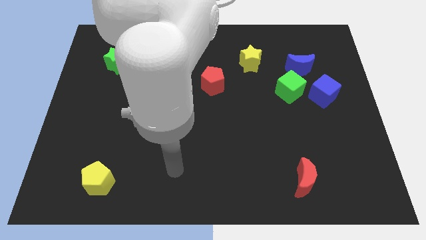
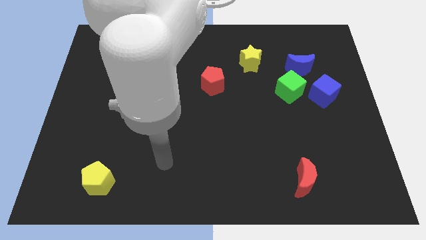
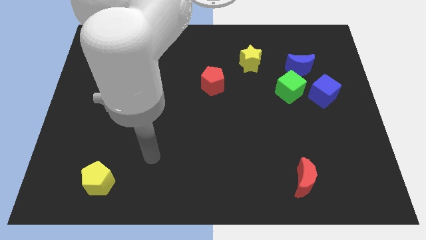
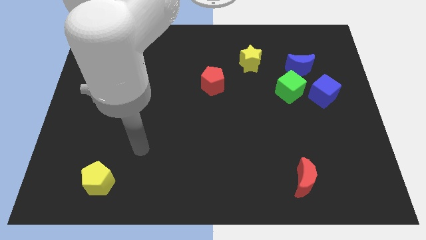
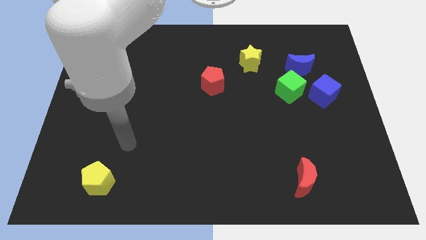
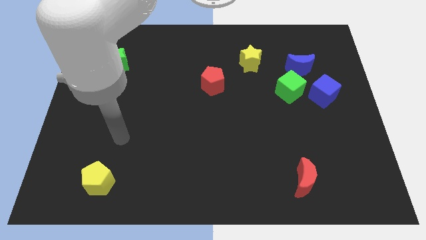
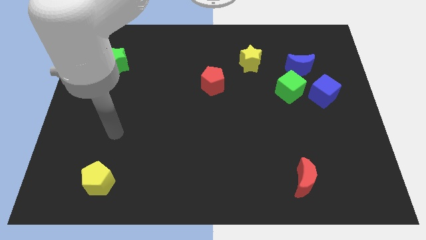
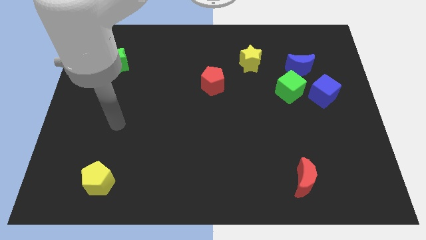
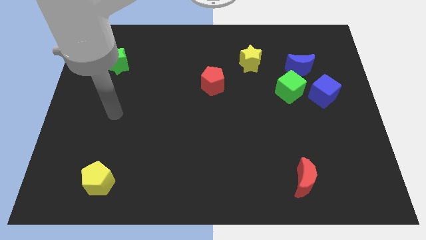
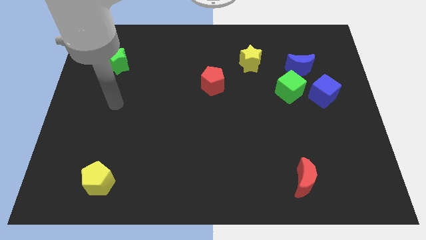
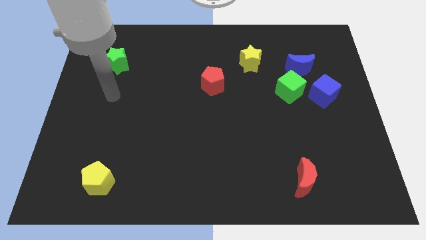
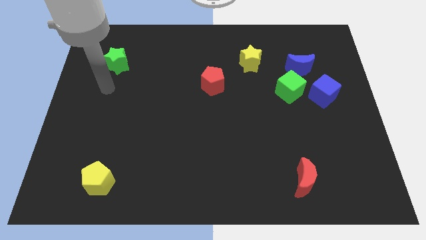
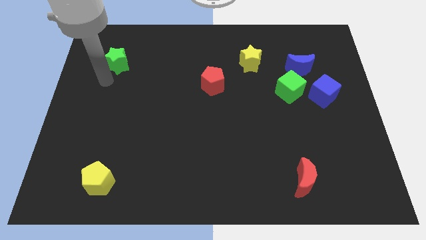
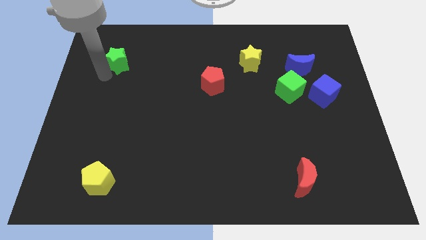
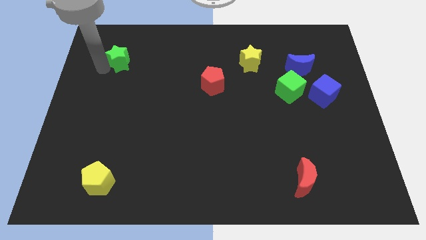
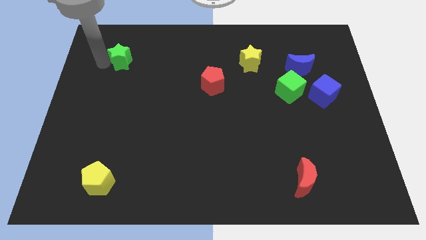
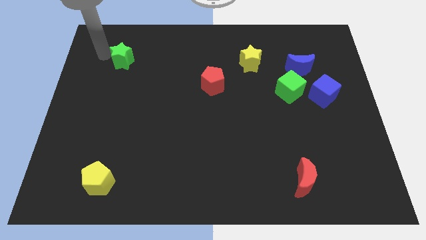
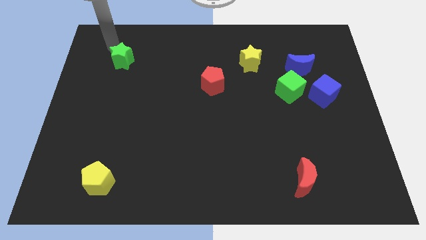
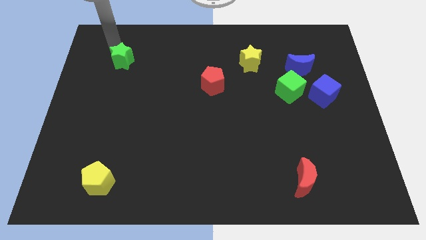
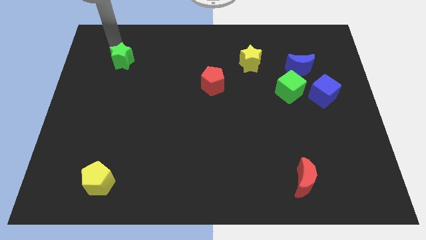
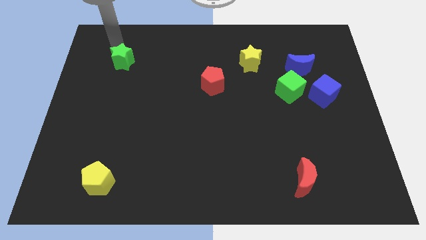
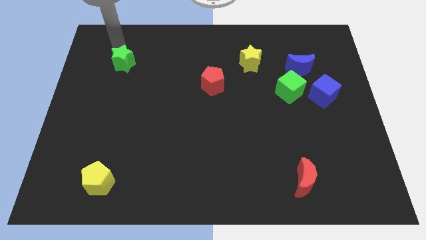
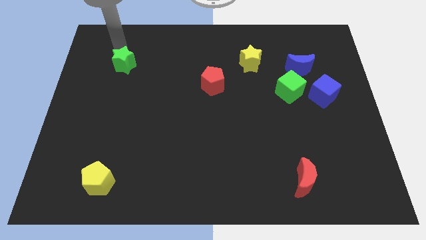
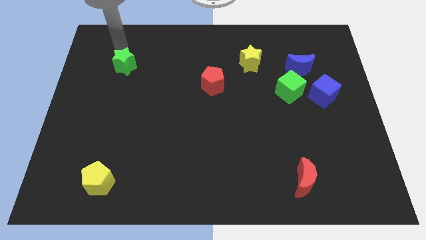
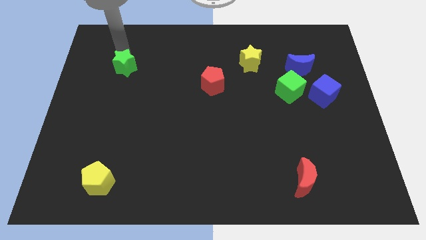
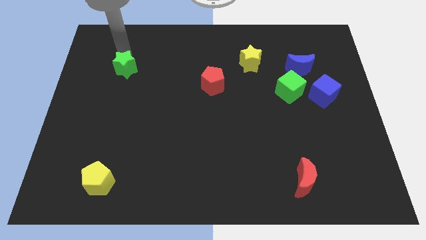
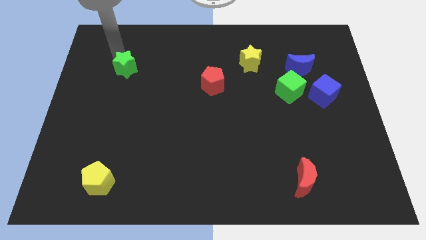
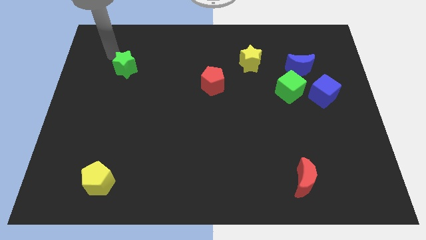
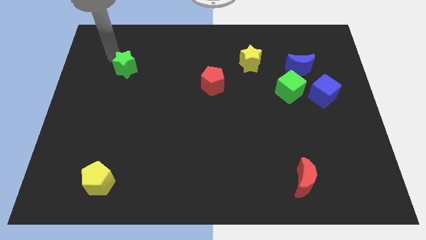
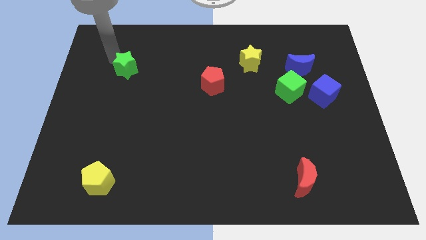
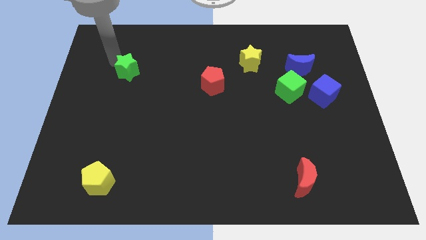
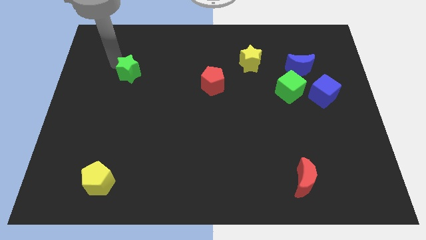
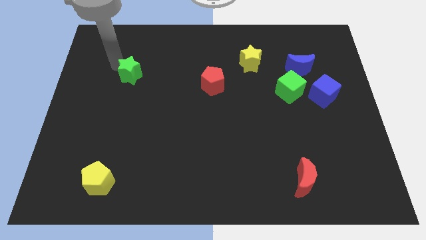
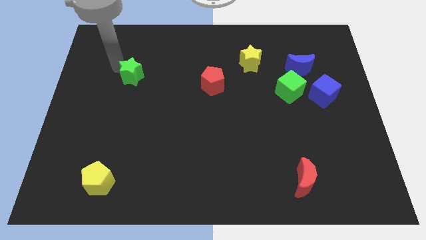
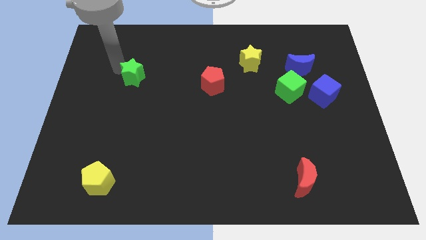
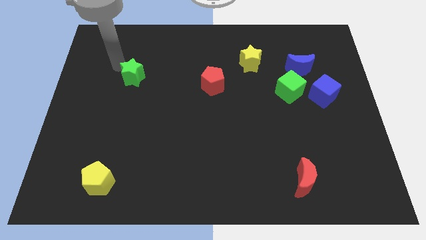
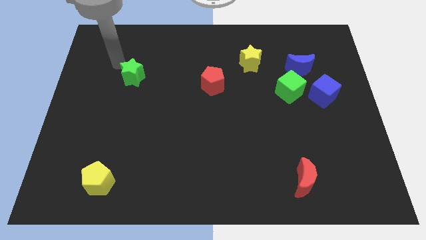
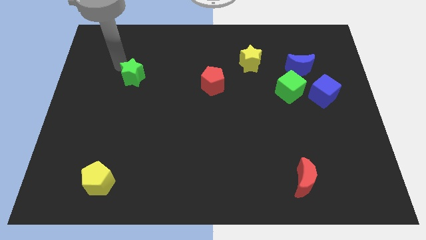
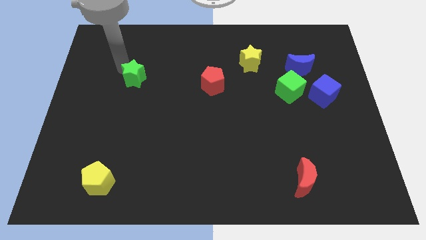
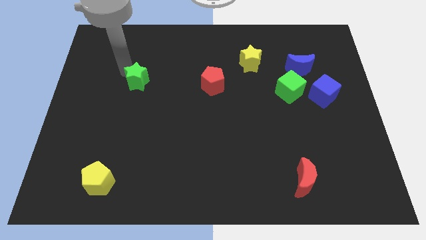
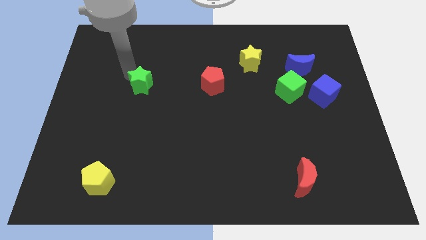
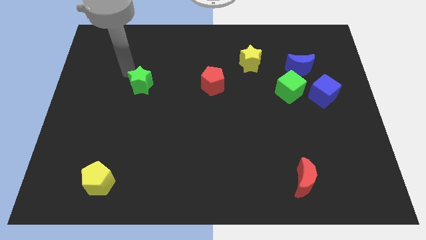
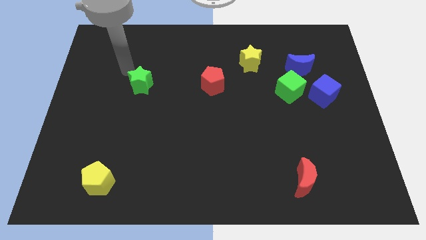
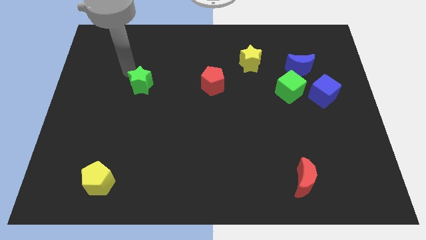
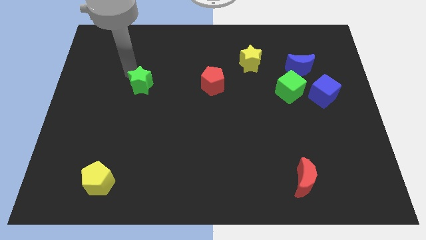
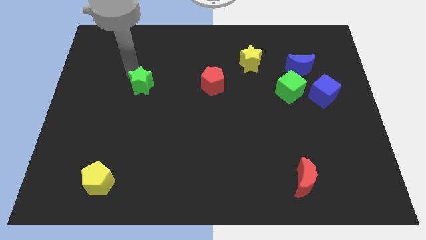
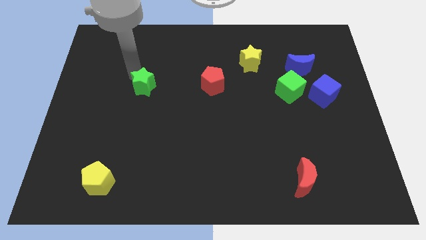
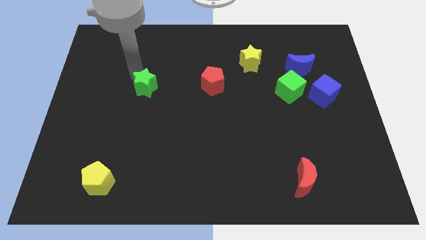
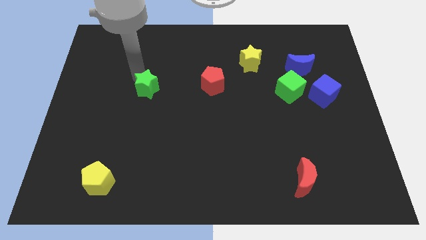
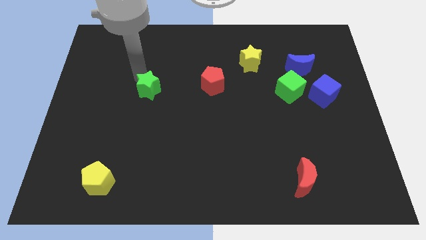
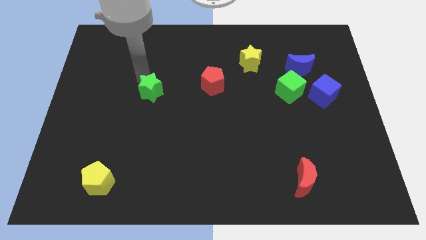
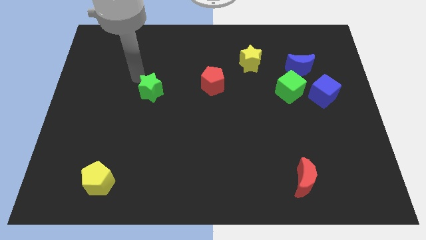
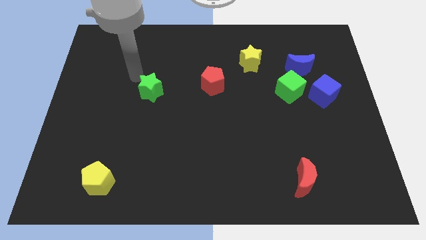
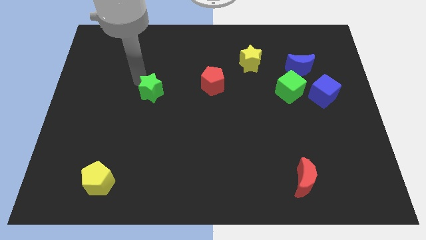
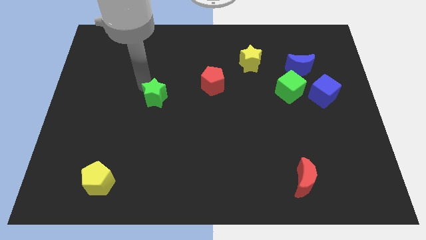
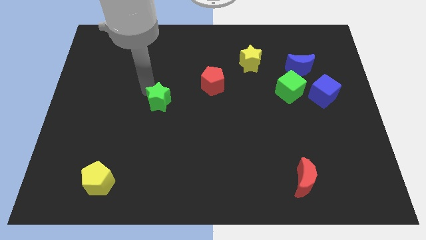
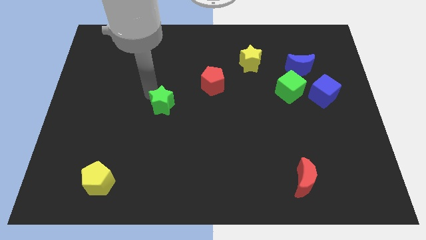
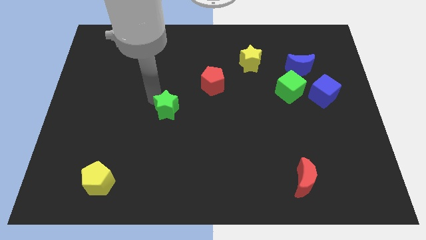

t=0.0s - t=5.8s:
push the green star downwards and to the right

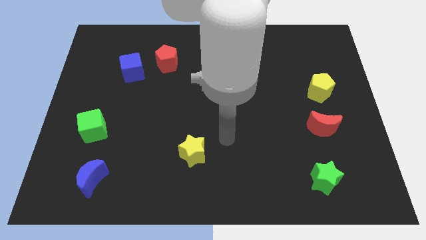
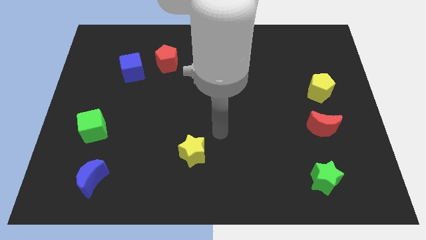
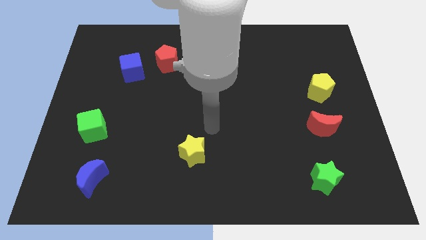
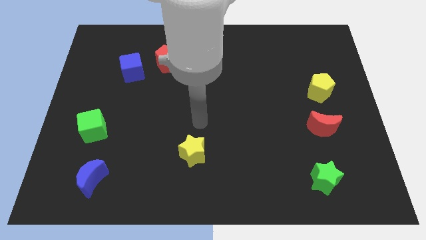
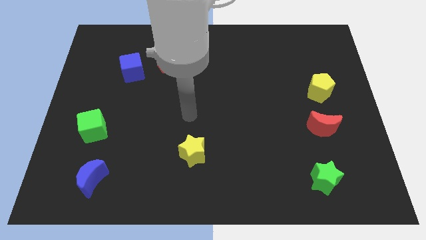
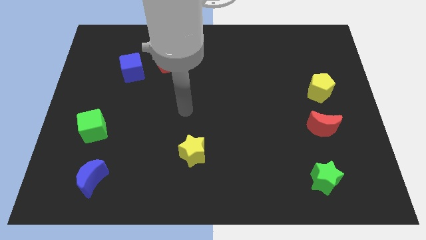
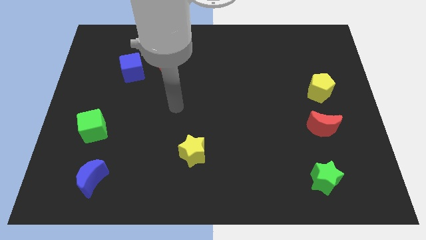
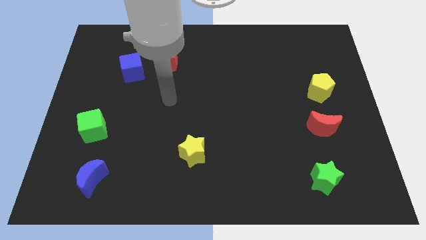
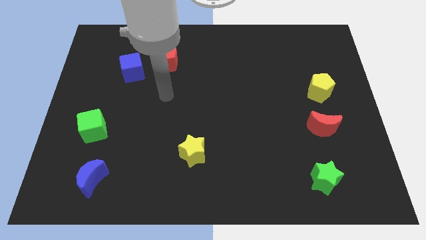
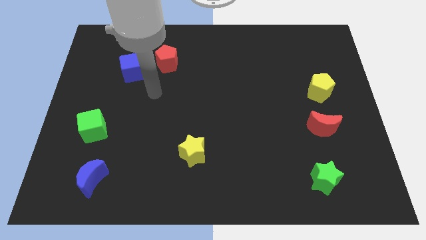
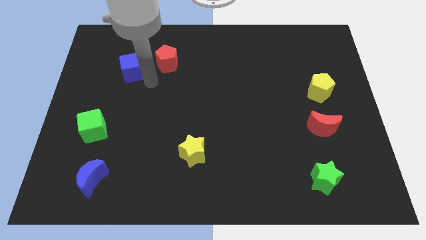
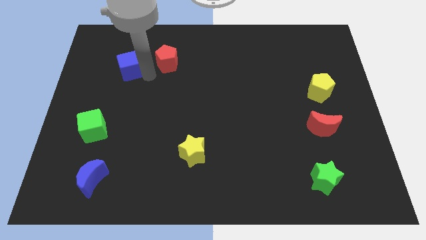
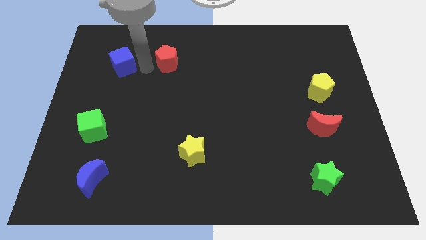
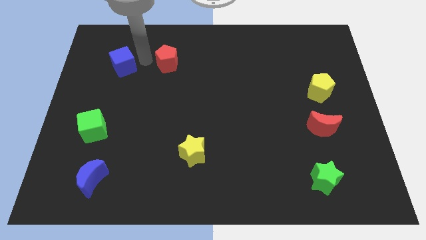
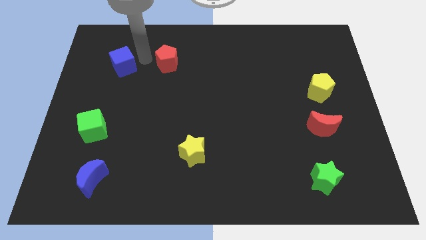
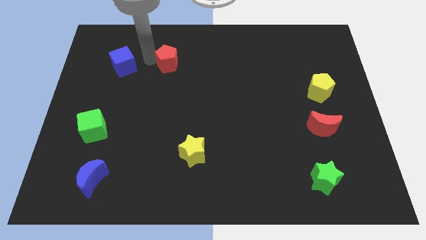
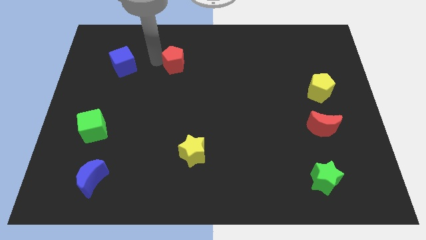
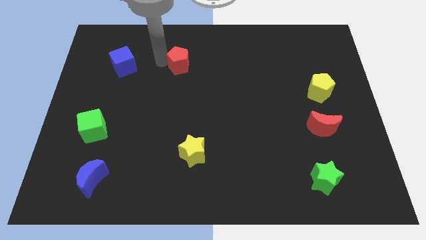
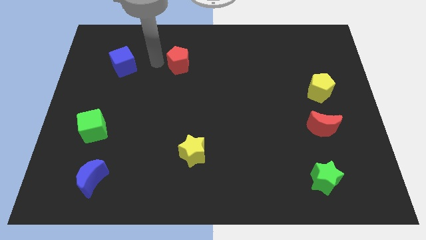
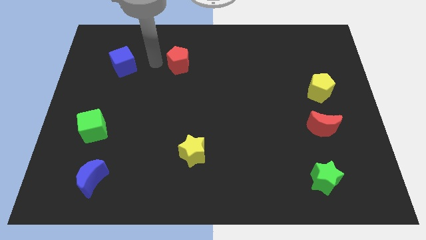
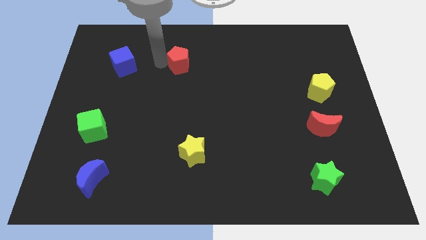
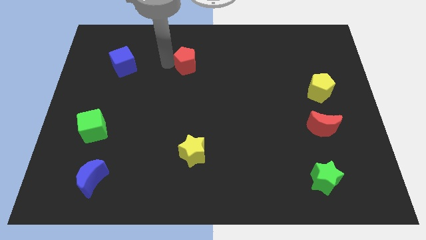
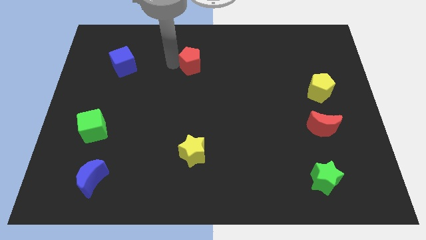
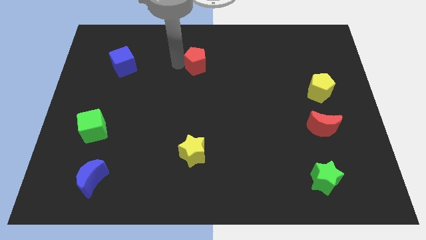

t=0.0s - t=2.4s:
move the red pentagon a bit right
